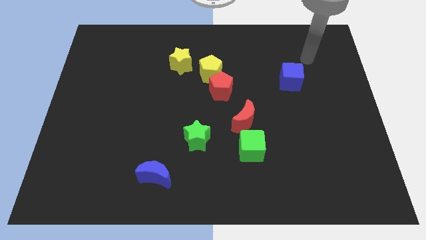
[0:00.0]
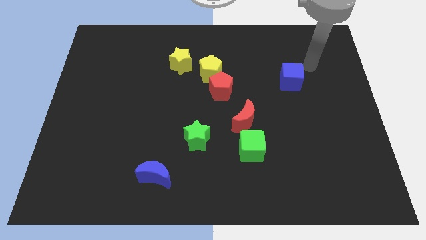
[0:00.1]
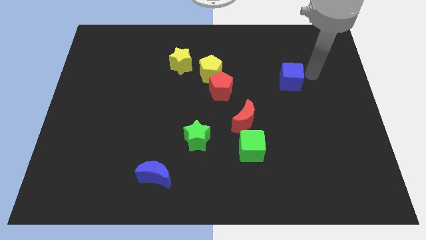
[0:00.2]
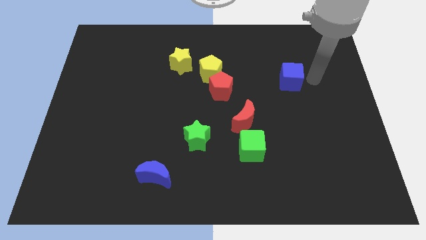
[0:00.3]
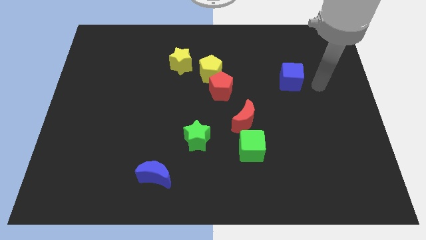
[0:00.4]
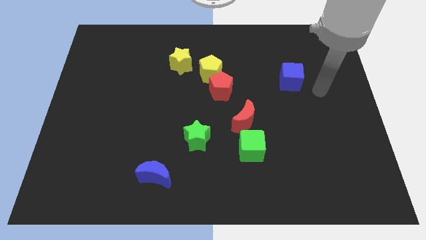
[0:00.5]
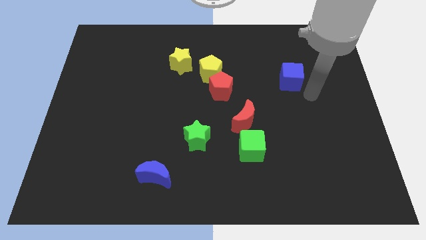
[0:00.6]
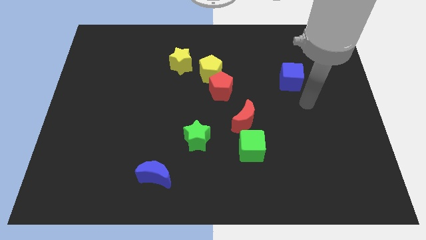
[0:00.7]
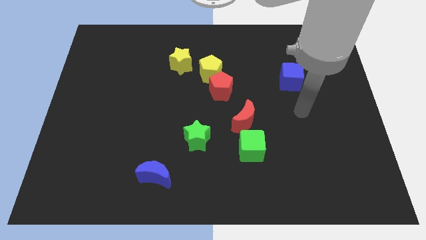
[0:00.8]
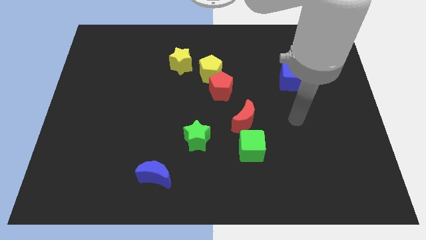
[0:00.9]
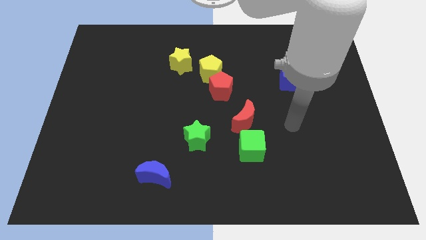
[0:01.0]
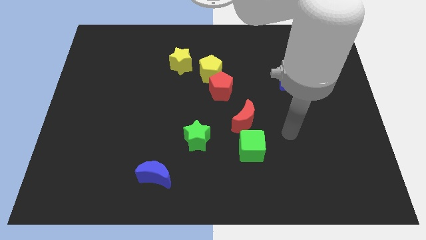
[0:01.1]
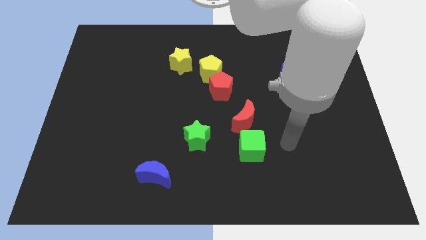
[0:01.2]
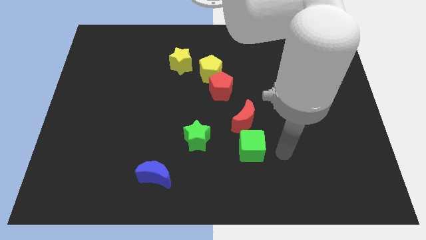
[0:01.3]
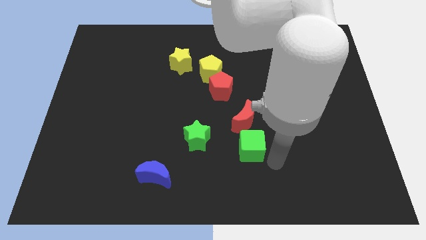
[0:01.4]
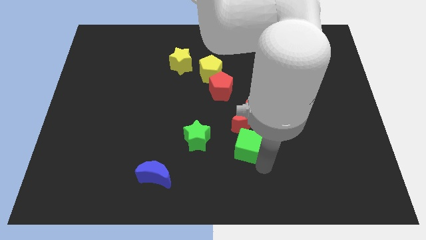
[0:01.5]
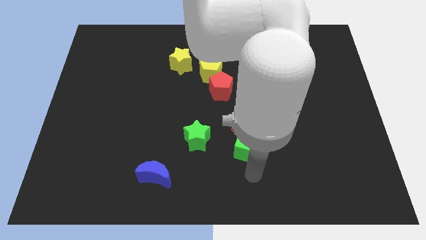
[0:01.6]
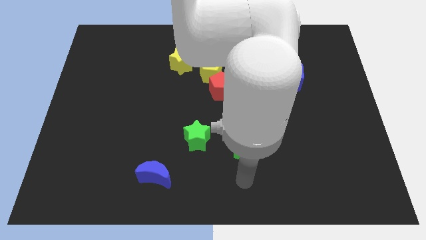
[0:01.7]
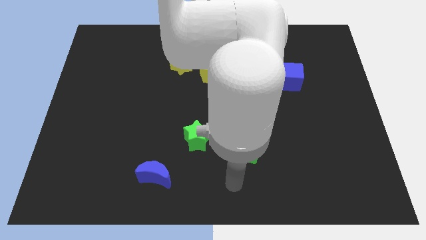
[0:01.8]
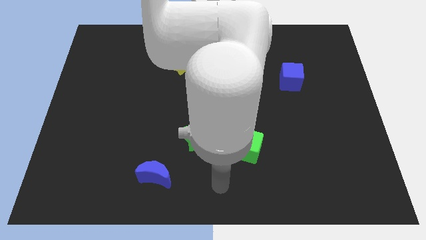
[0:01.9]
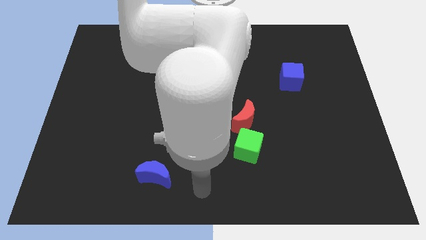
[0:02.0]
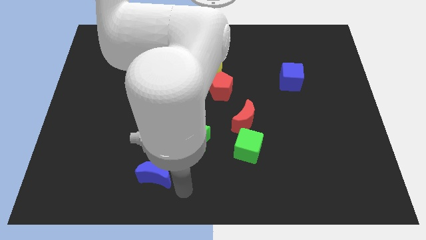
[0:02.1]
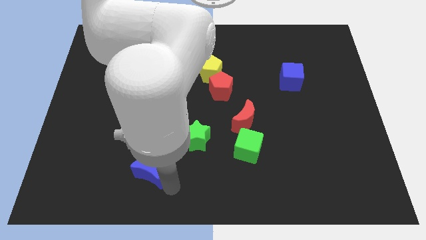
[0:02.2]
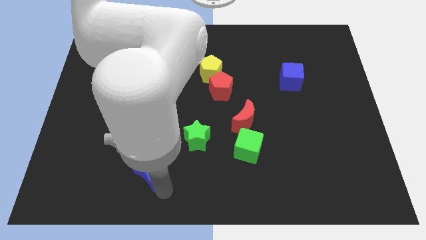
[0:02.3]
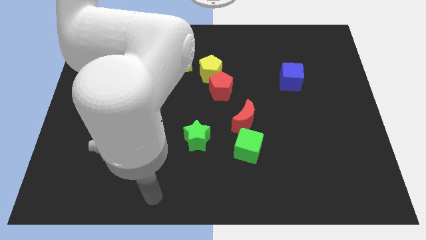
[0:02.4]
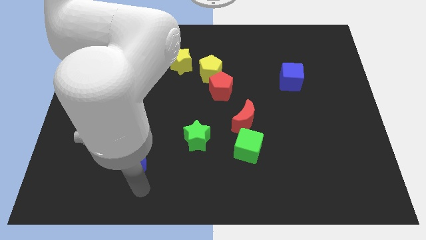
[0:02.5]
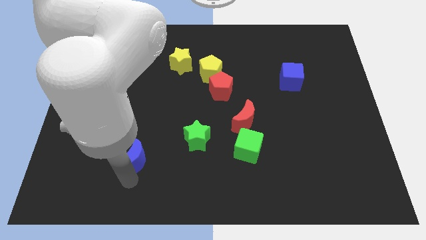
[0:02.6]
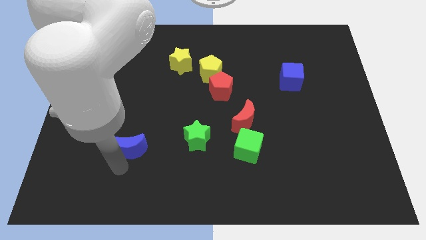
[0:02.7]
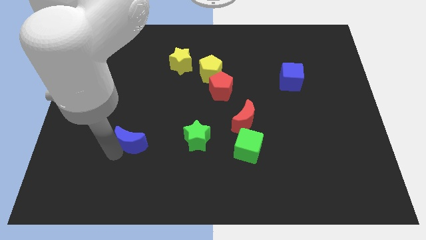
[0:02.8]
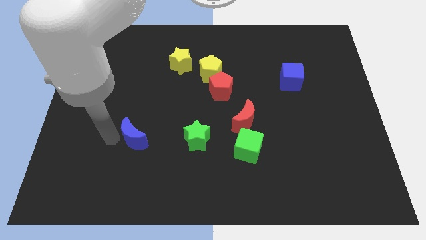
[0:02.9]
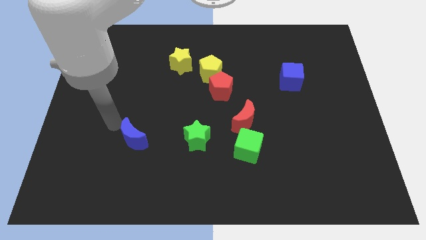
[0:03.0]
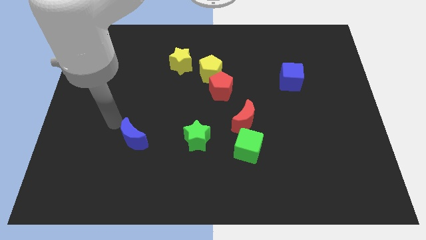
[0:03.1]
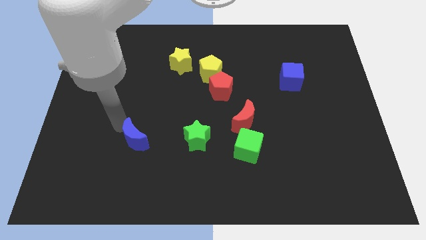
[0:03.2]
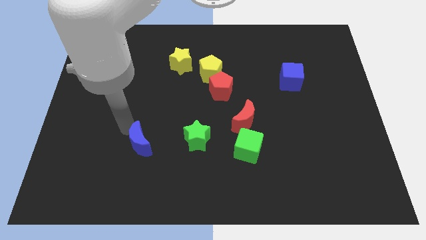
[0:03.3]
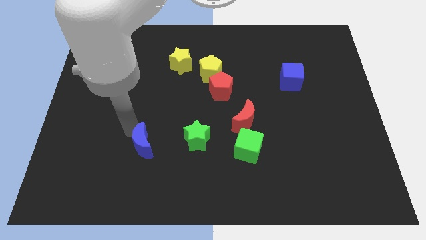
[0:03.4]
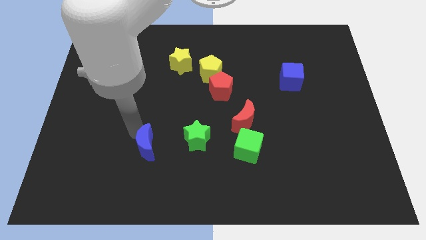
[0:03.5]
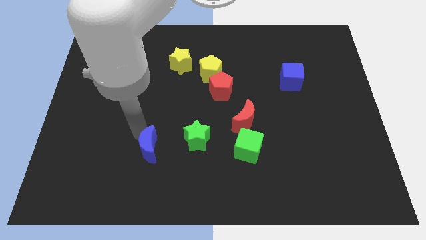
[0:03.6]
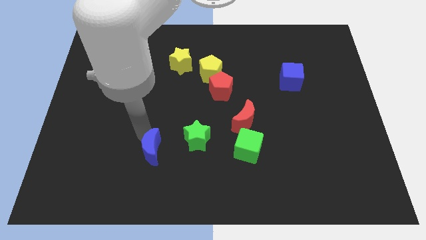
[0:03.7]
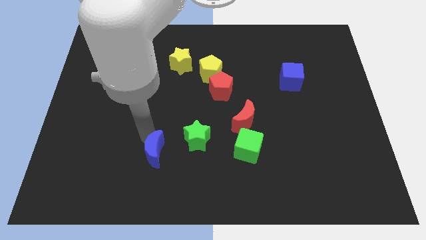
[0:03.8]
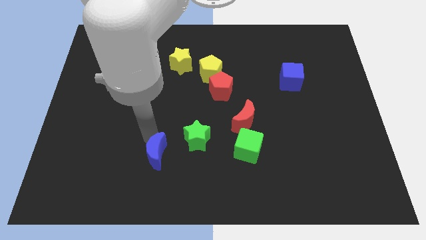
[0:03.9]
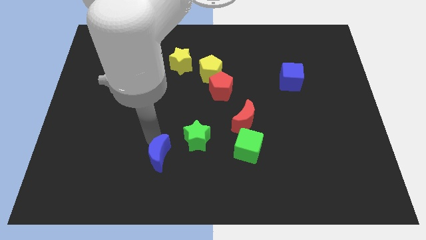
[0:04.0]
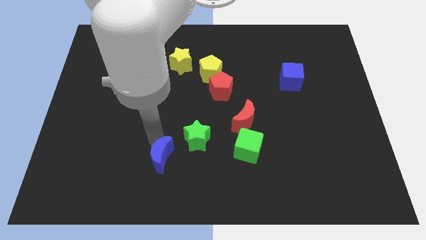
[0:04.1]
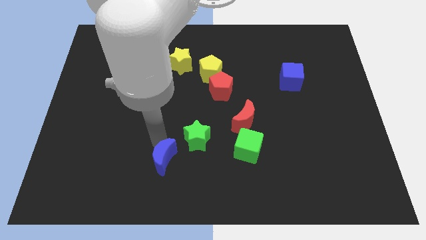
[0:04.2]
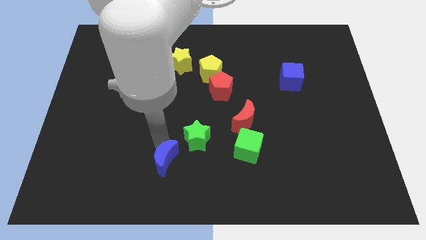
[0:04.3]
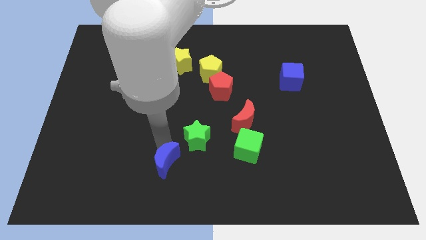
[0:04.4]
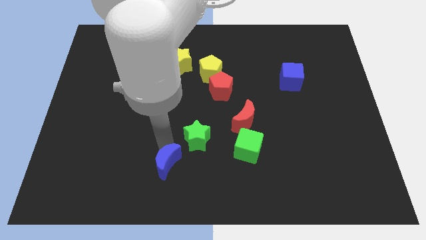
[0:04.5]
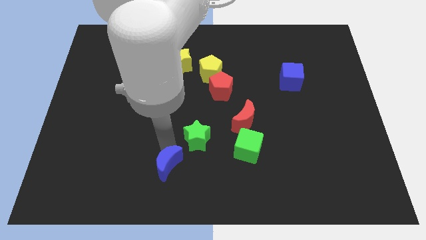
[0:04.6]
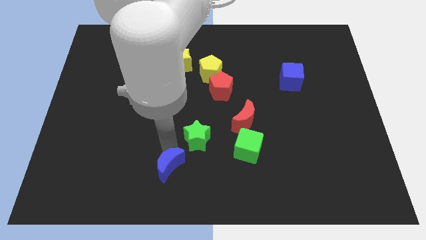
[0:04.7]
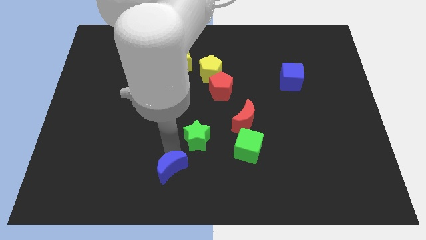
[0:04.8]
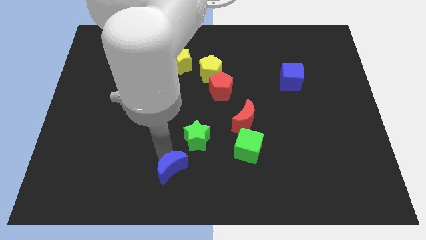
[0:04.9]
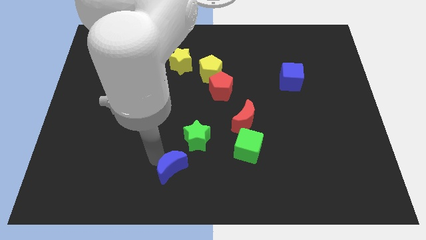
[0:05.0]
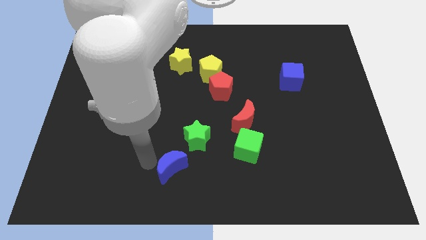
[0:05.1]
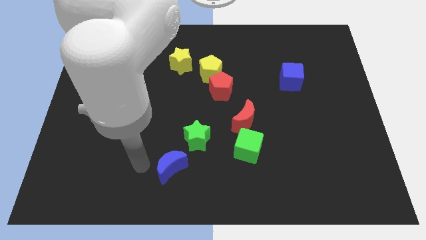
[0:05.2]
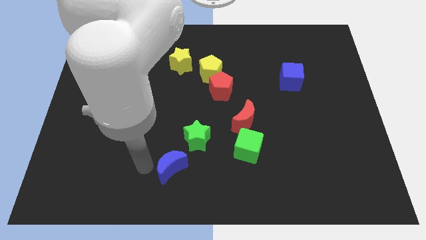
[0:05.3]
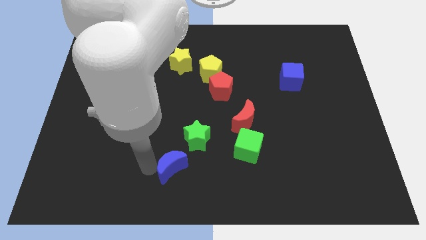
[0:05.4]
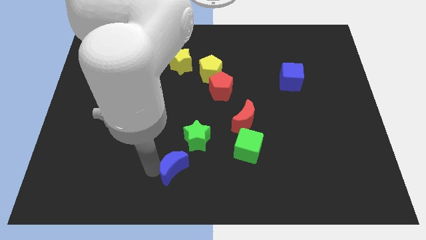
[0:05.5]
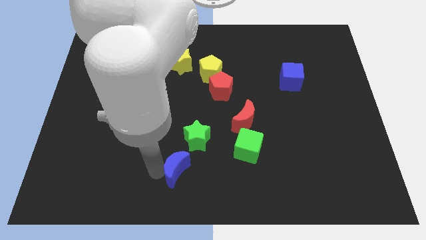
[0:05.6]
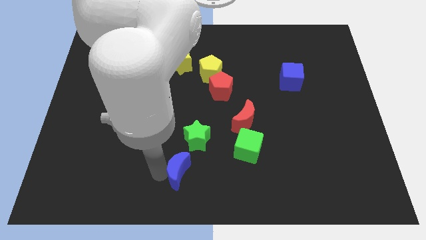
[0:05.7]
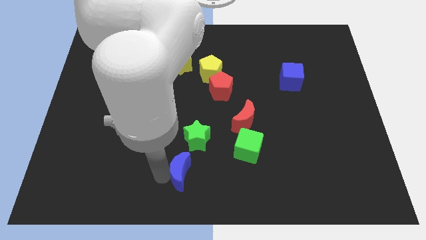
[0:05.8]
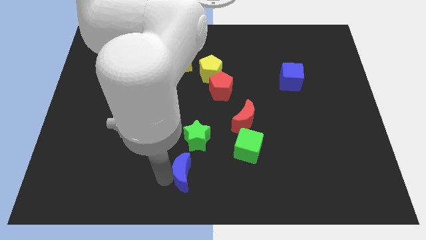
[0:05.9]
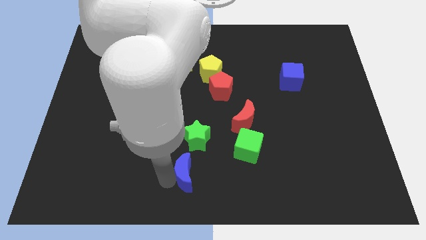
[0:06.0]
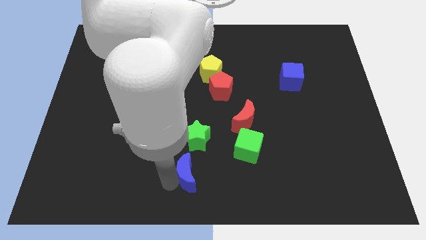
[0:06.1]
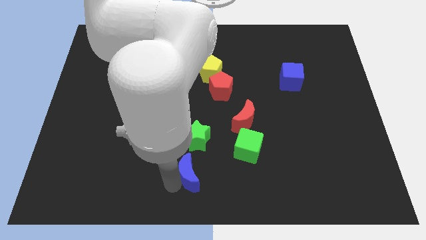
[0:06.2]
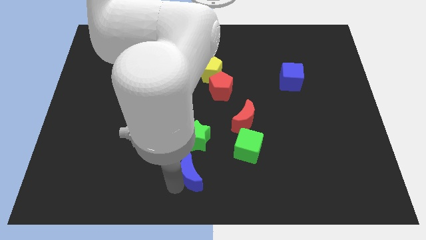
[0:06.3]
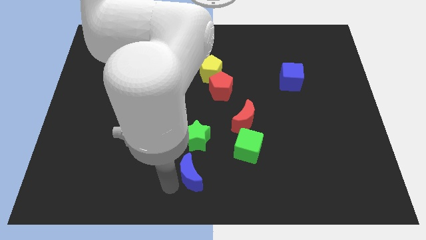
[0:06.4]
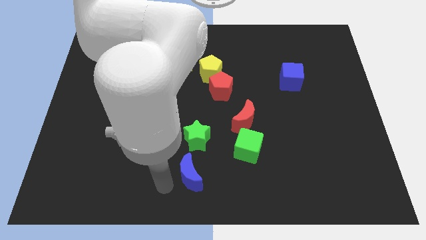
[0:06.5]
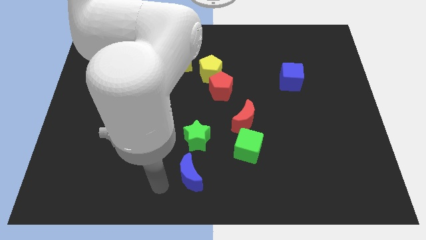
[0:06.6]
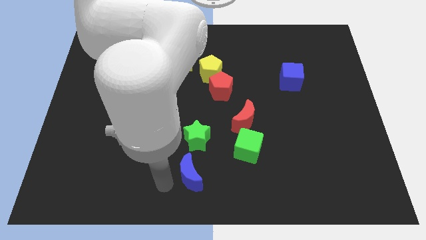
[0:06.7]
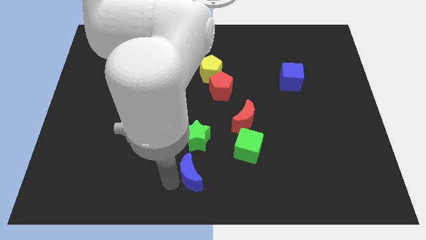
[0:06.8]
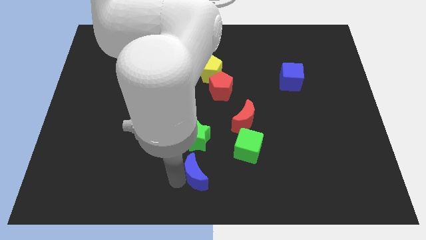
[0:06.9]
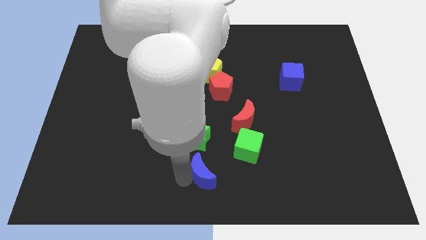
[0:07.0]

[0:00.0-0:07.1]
put the blue moon diagonally down and to the left of the green cube
